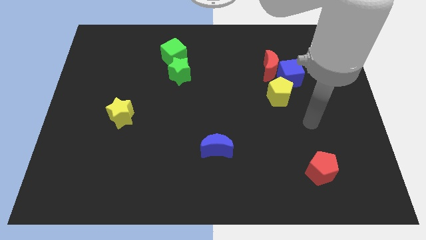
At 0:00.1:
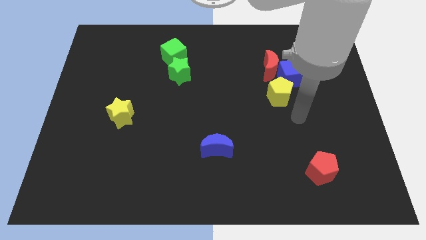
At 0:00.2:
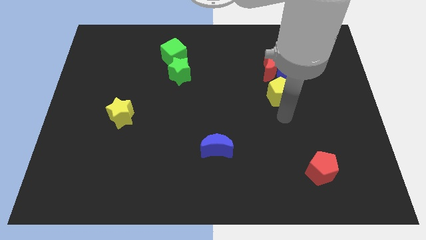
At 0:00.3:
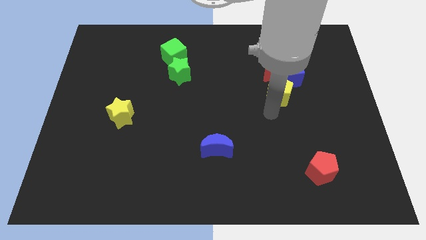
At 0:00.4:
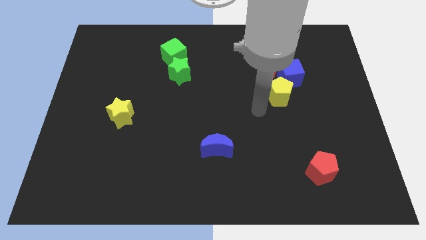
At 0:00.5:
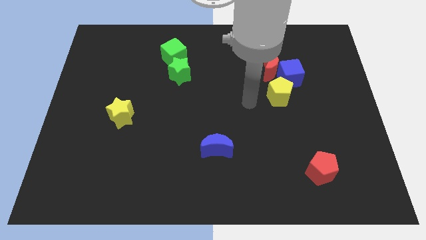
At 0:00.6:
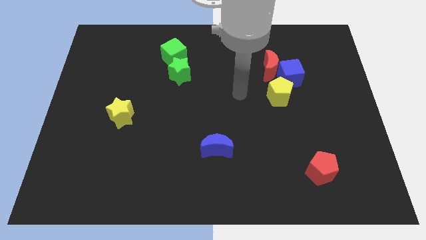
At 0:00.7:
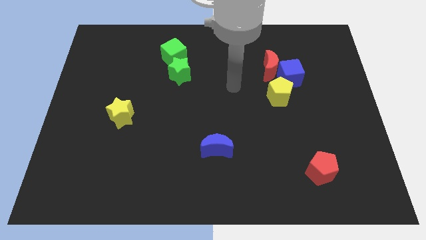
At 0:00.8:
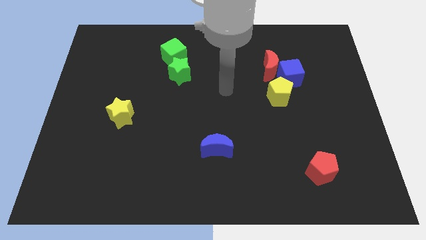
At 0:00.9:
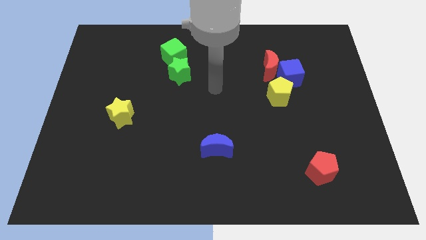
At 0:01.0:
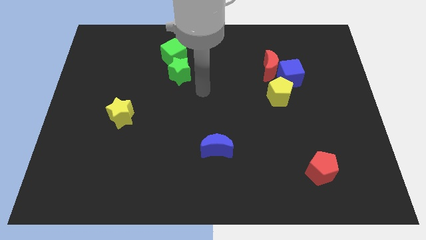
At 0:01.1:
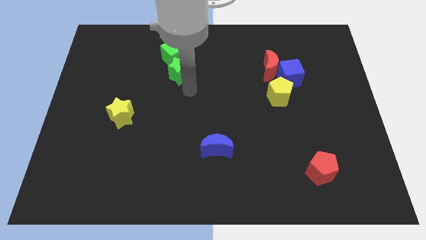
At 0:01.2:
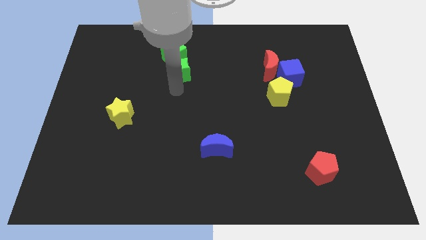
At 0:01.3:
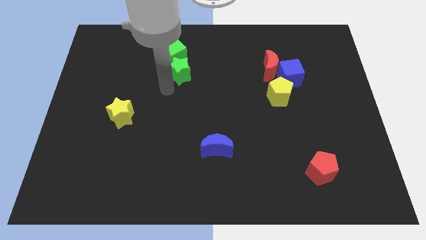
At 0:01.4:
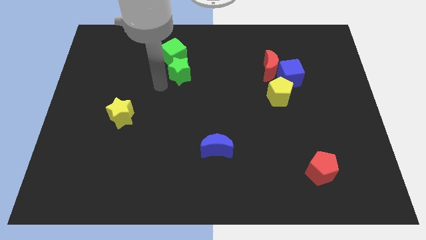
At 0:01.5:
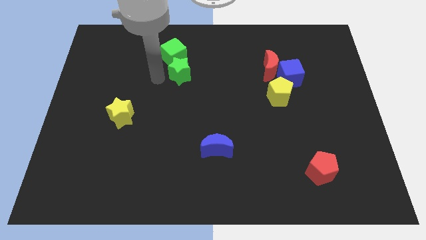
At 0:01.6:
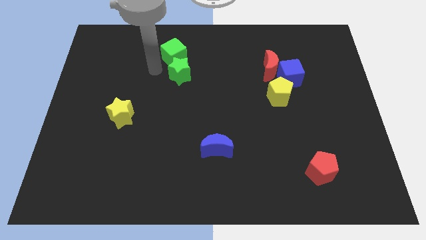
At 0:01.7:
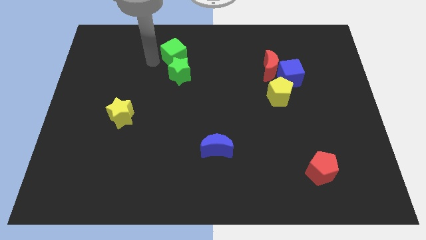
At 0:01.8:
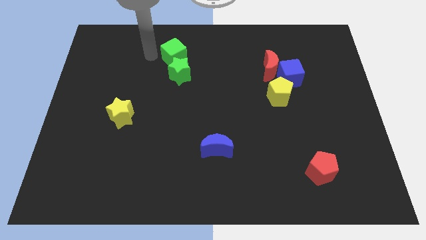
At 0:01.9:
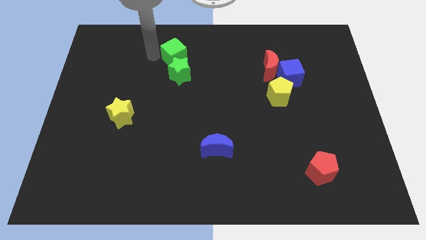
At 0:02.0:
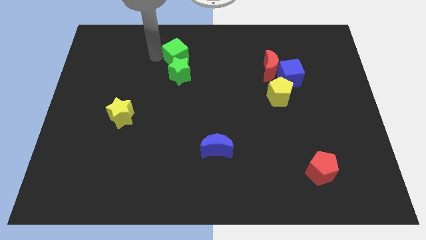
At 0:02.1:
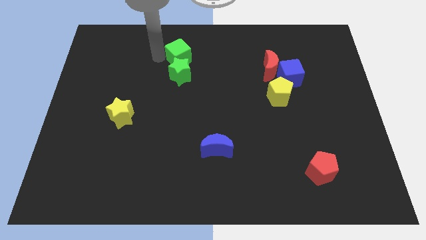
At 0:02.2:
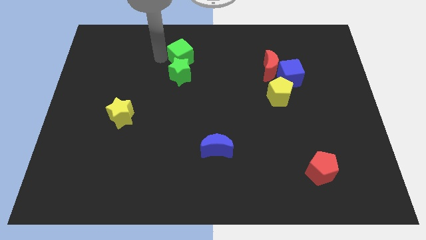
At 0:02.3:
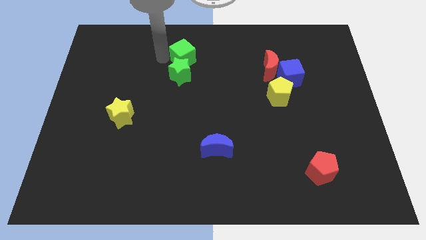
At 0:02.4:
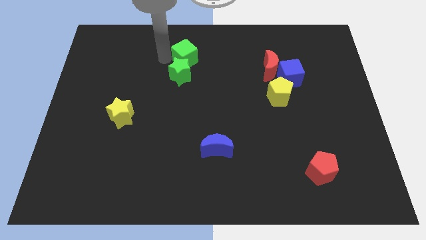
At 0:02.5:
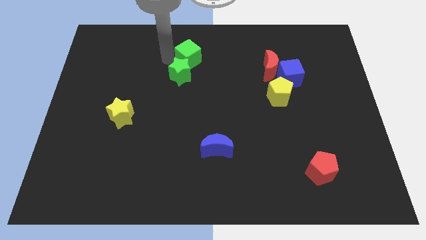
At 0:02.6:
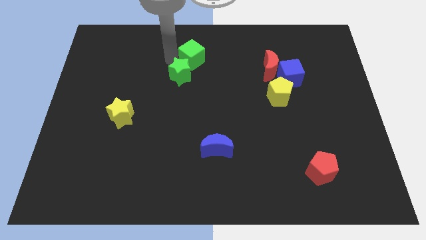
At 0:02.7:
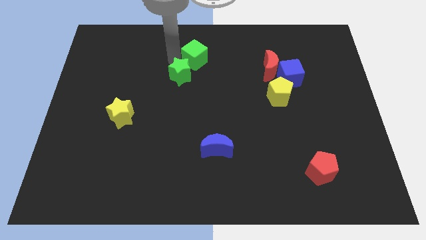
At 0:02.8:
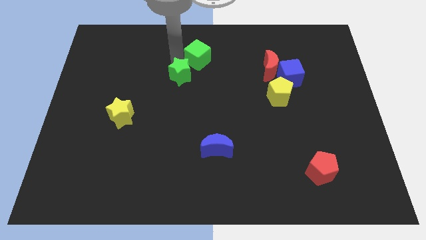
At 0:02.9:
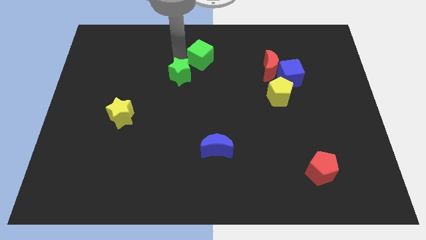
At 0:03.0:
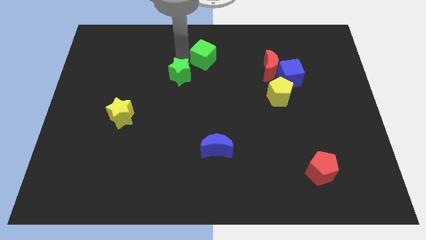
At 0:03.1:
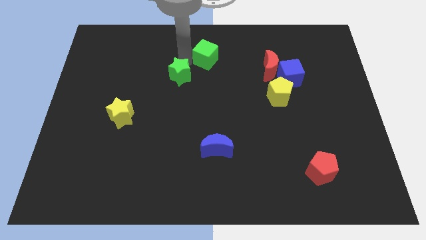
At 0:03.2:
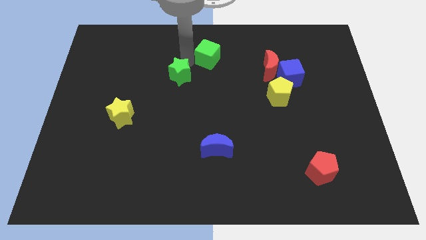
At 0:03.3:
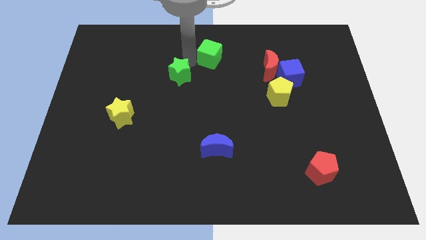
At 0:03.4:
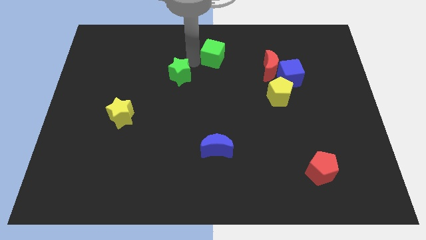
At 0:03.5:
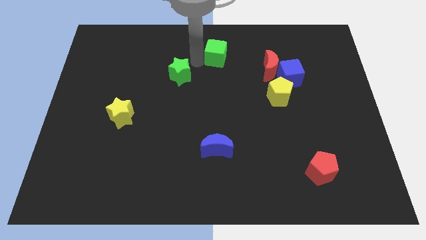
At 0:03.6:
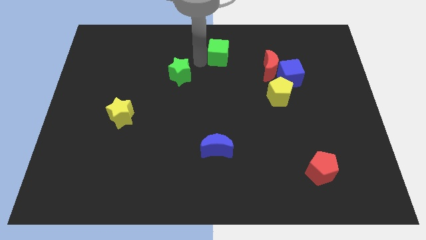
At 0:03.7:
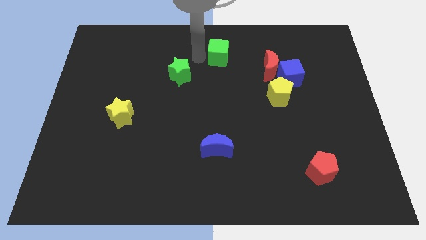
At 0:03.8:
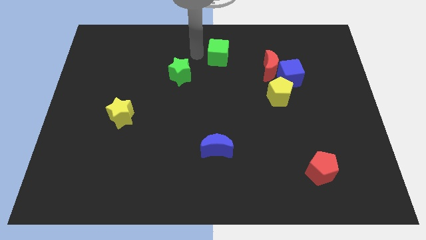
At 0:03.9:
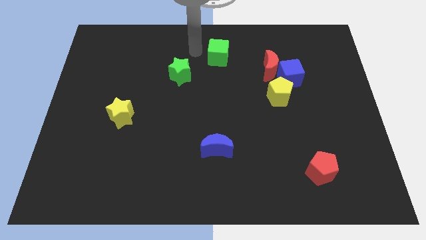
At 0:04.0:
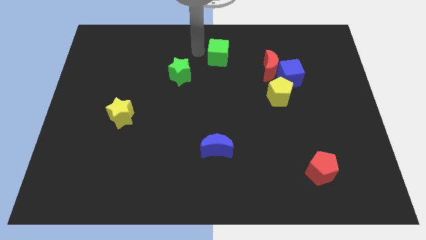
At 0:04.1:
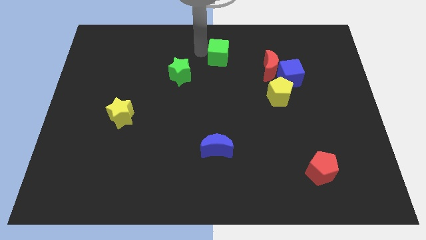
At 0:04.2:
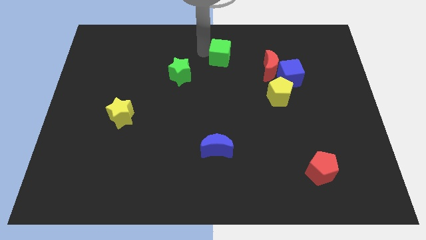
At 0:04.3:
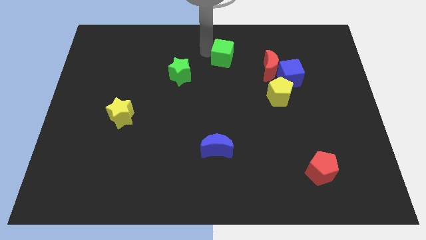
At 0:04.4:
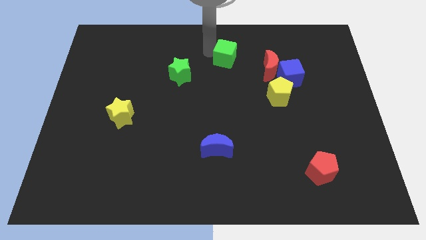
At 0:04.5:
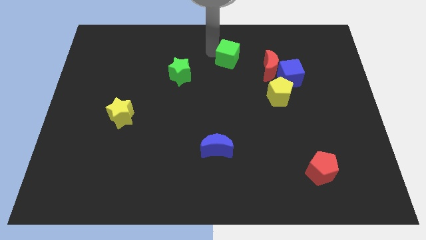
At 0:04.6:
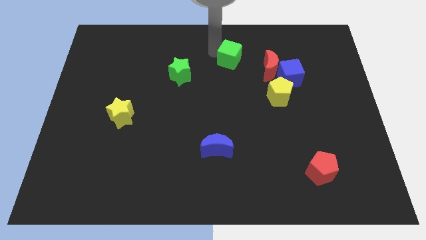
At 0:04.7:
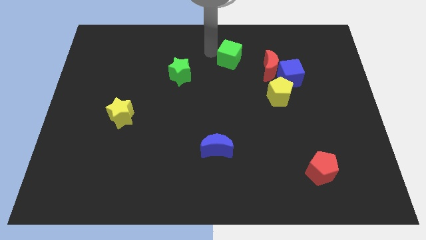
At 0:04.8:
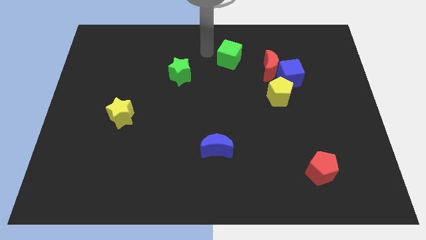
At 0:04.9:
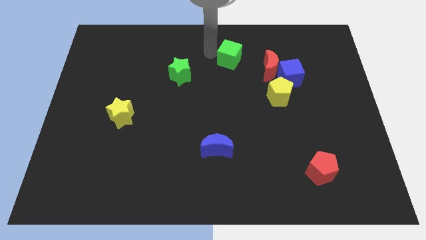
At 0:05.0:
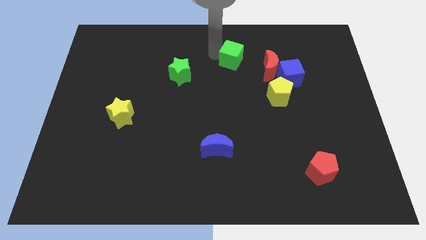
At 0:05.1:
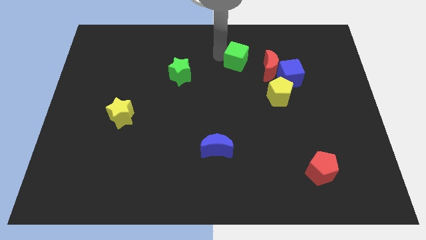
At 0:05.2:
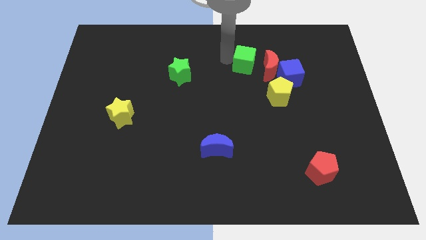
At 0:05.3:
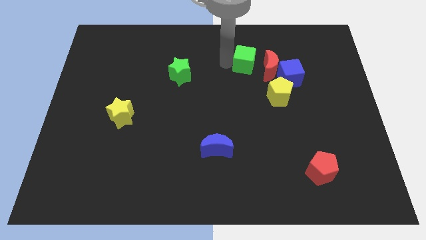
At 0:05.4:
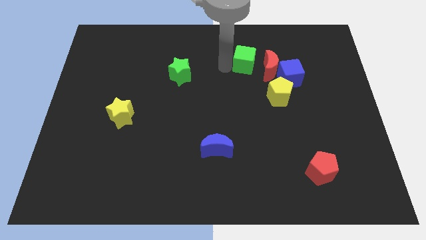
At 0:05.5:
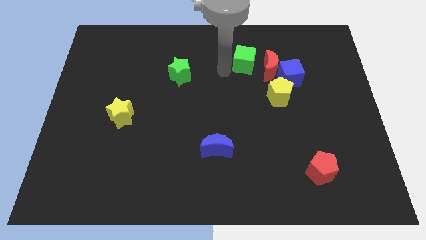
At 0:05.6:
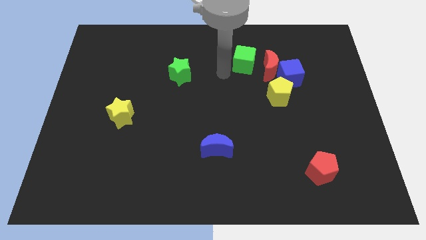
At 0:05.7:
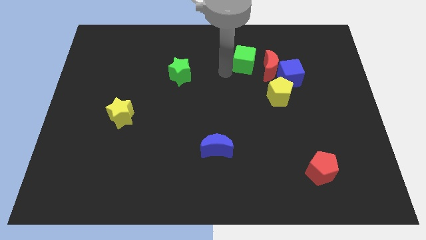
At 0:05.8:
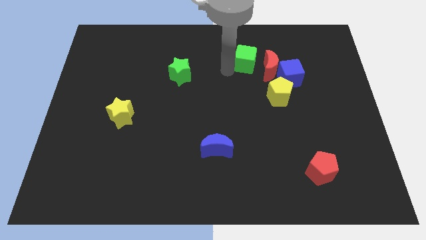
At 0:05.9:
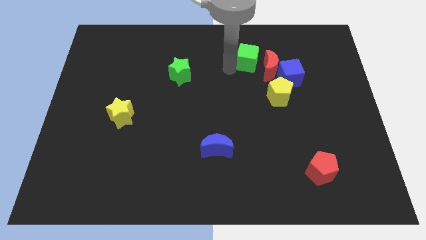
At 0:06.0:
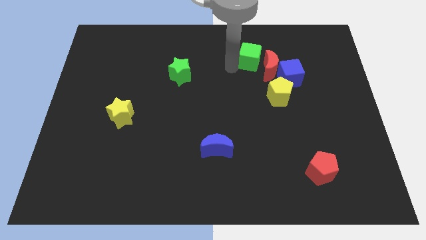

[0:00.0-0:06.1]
push the green cube right

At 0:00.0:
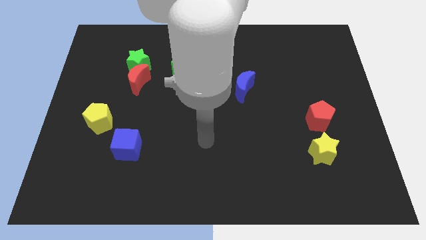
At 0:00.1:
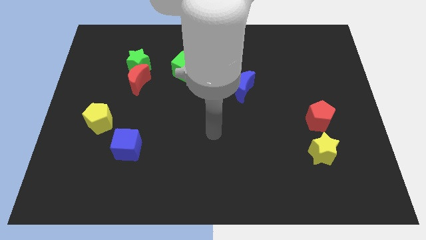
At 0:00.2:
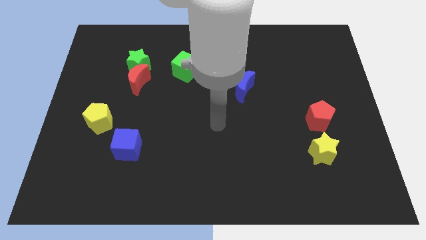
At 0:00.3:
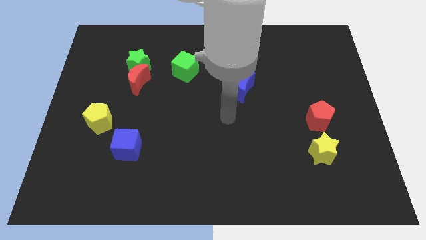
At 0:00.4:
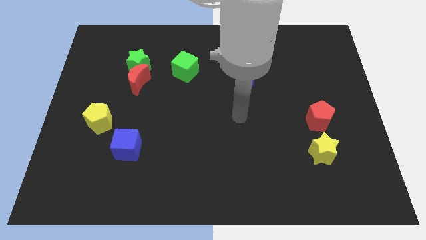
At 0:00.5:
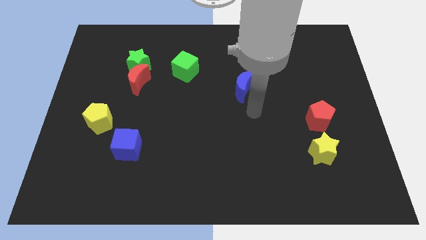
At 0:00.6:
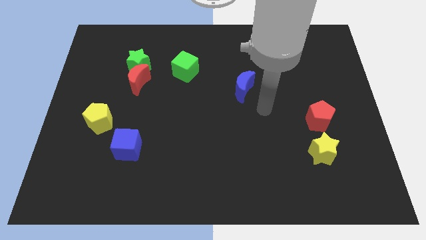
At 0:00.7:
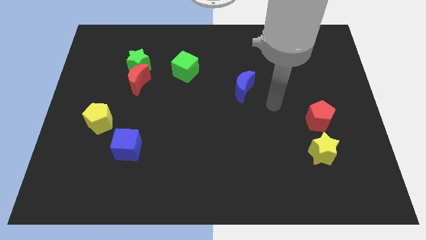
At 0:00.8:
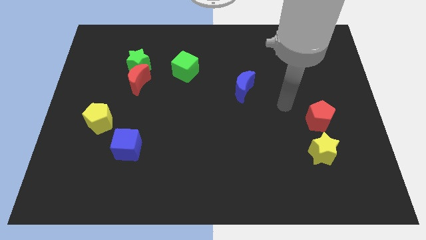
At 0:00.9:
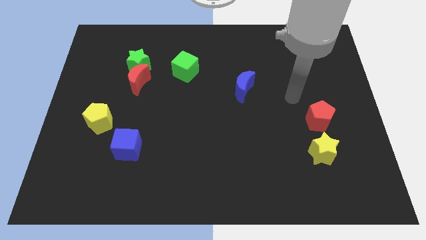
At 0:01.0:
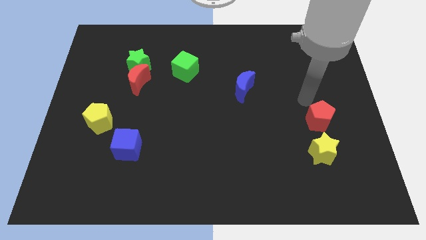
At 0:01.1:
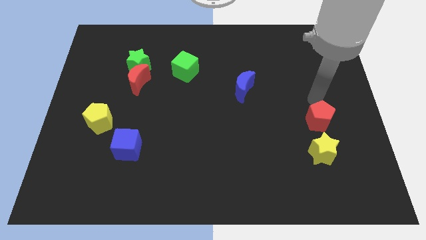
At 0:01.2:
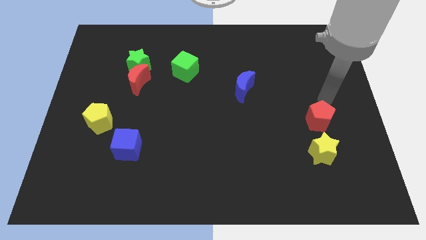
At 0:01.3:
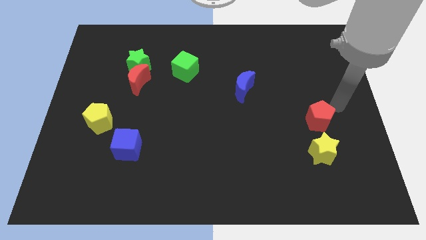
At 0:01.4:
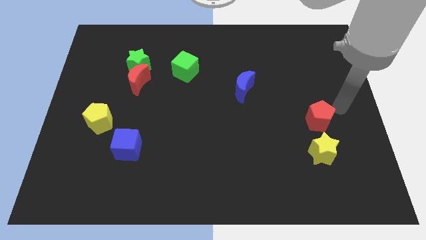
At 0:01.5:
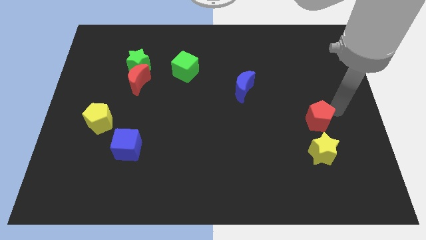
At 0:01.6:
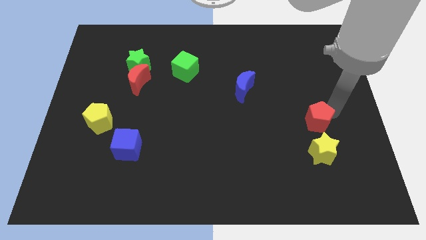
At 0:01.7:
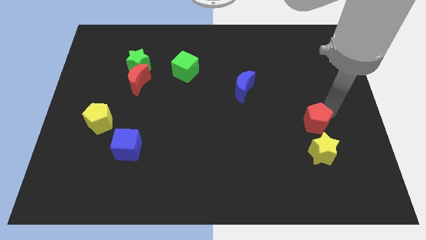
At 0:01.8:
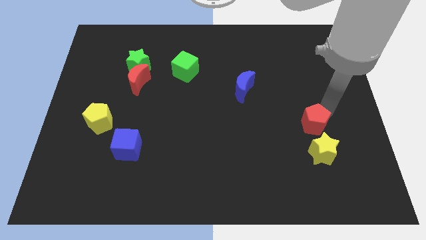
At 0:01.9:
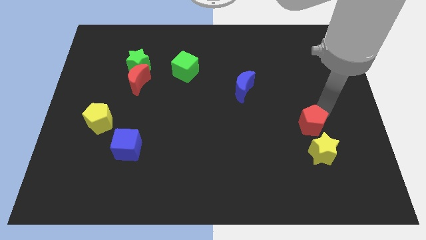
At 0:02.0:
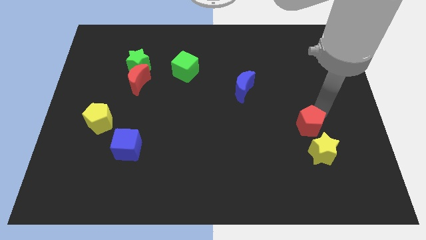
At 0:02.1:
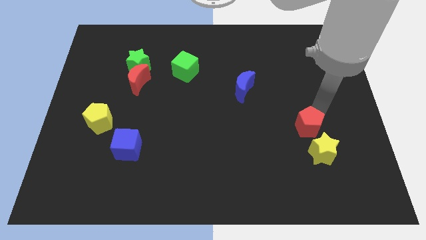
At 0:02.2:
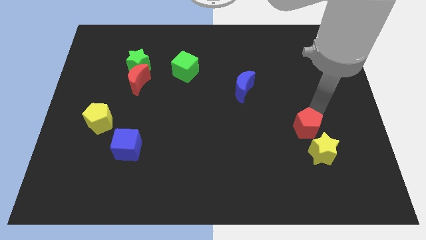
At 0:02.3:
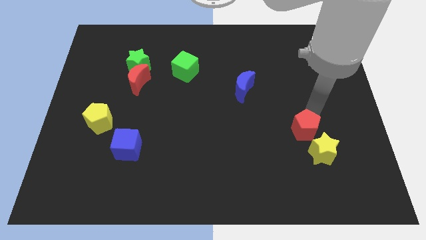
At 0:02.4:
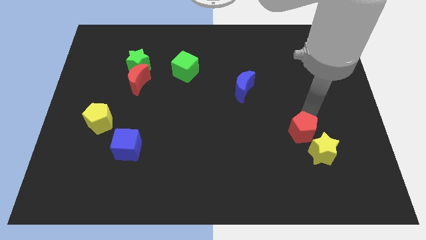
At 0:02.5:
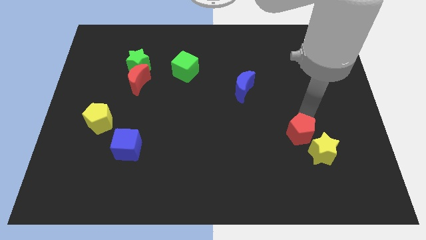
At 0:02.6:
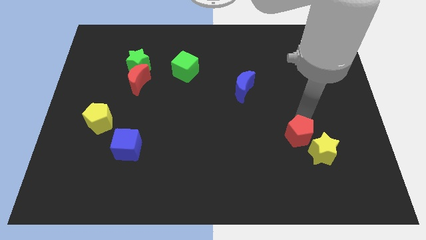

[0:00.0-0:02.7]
push the red pentagon a bit diagonally downwards and left
